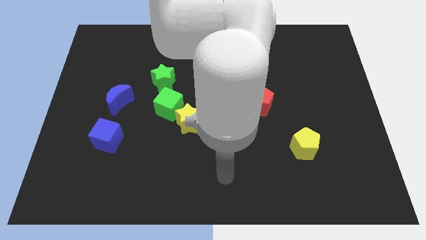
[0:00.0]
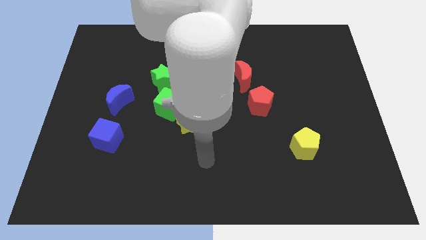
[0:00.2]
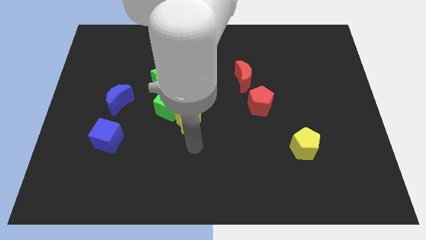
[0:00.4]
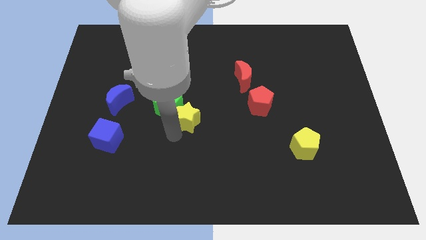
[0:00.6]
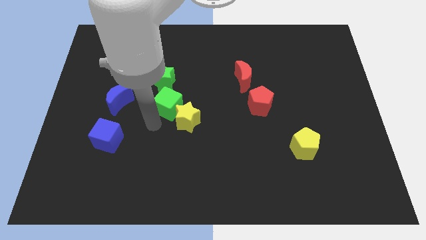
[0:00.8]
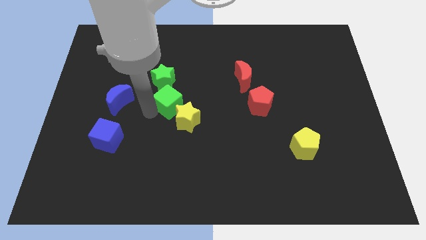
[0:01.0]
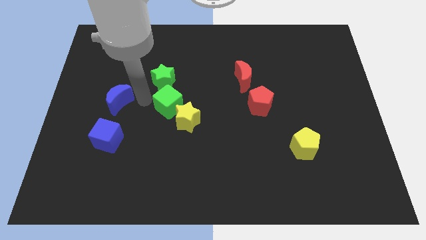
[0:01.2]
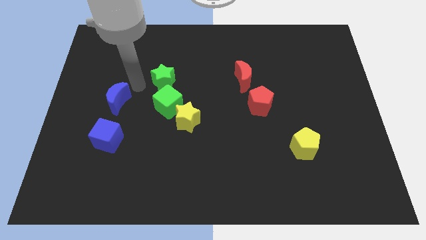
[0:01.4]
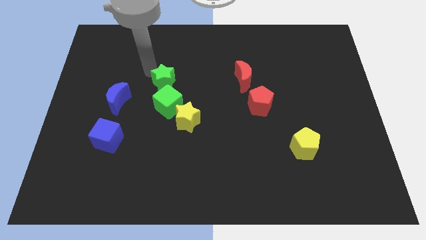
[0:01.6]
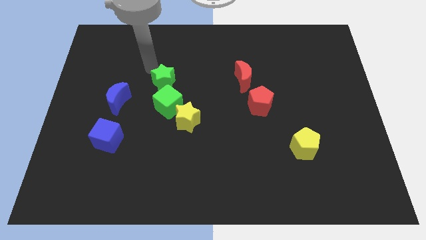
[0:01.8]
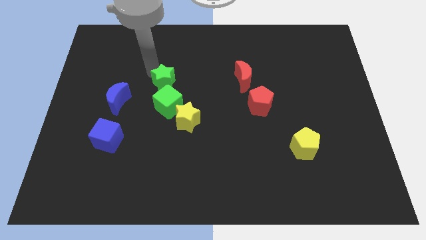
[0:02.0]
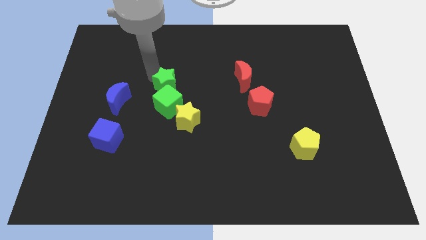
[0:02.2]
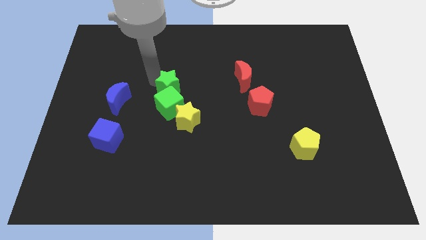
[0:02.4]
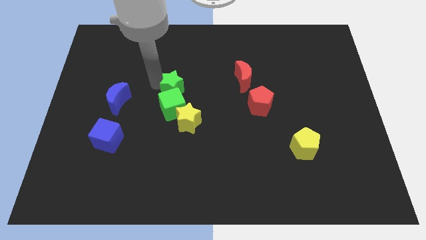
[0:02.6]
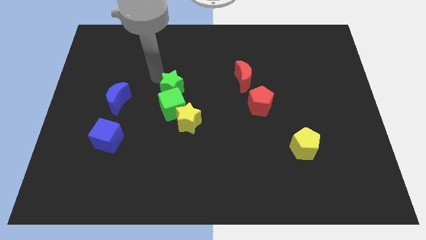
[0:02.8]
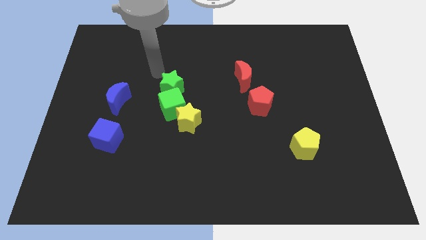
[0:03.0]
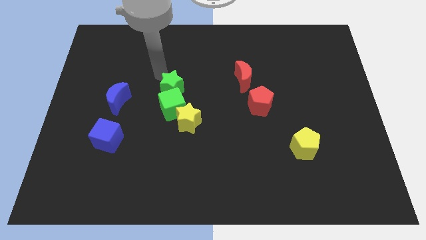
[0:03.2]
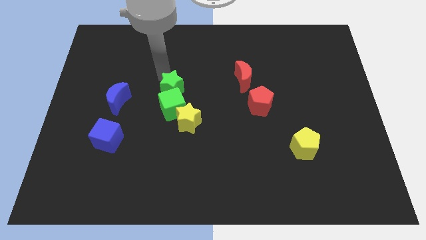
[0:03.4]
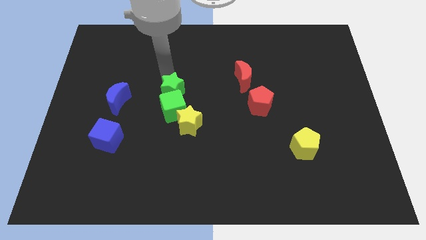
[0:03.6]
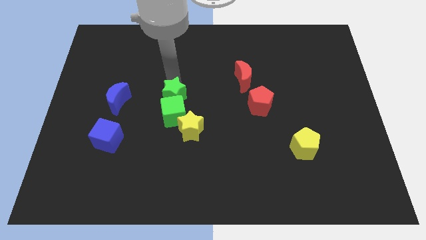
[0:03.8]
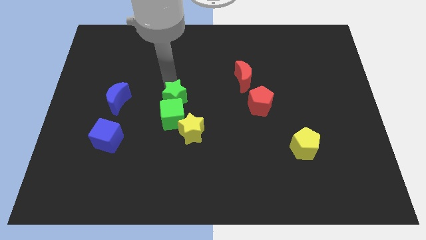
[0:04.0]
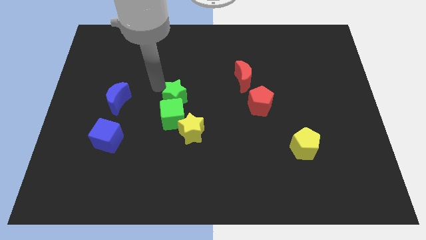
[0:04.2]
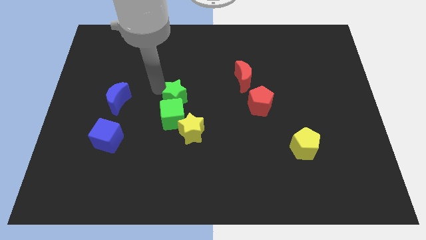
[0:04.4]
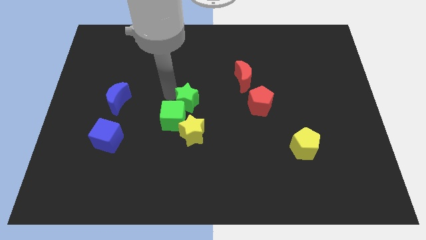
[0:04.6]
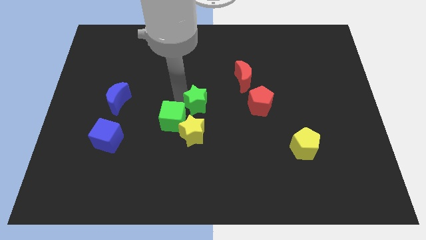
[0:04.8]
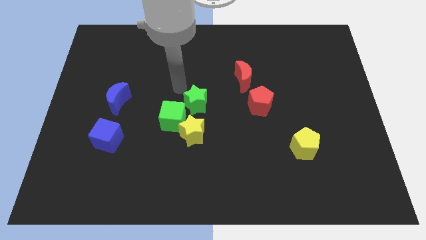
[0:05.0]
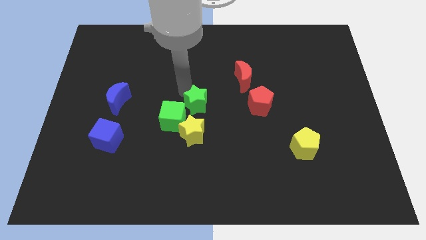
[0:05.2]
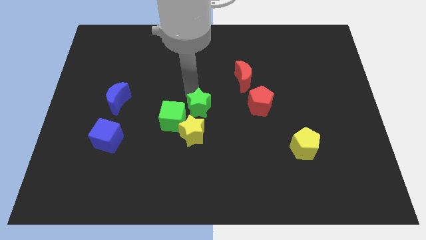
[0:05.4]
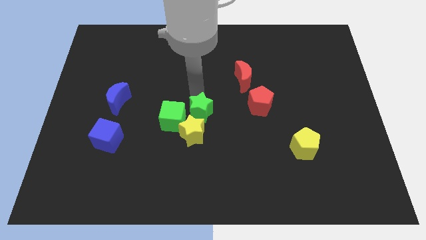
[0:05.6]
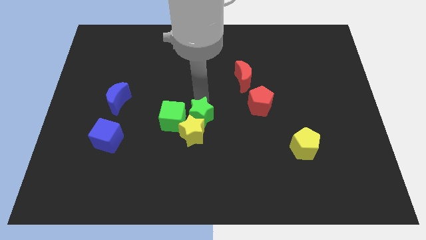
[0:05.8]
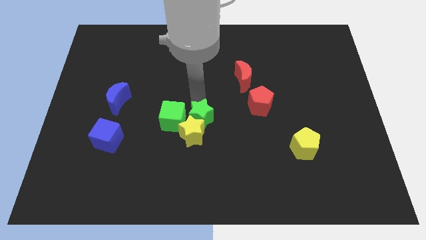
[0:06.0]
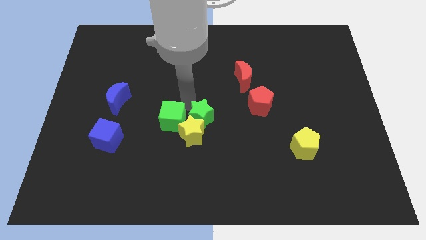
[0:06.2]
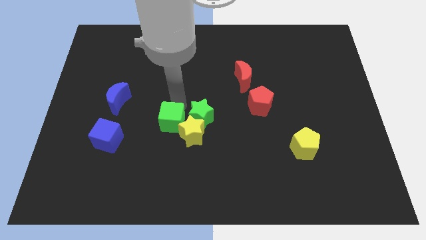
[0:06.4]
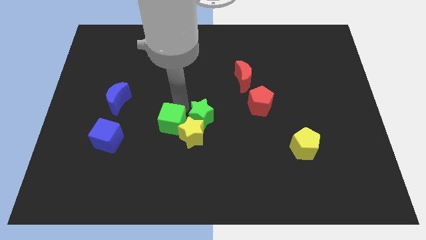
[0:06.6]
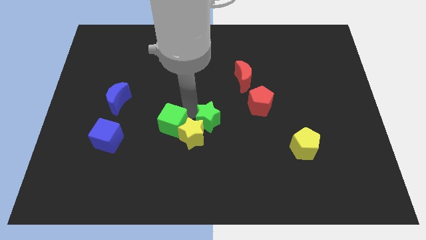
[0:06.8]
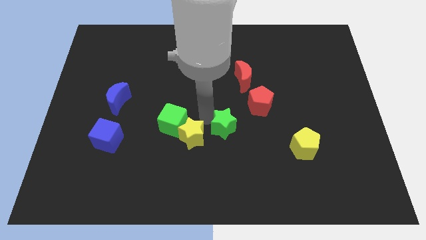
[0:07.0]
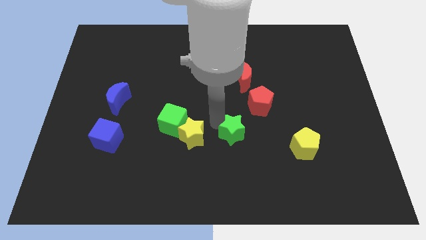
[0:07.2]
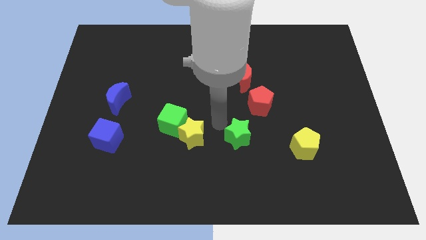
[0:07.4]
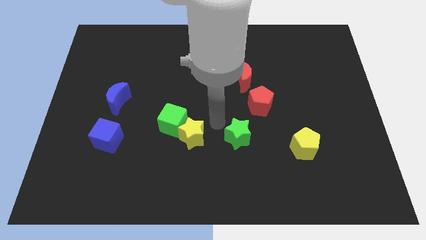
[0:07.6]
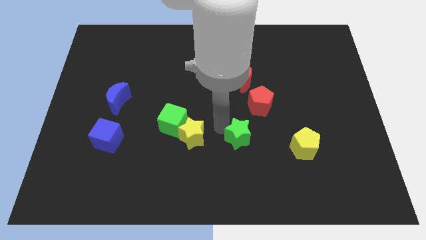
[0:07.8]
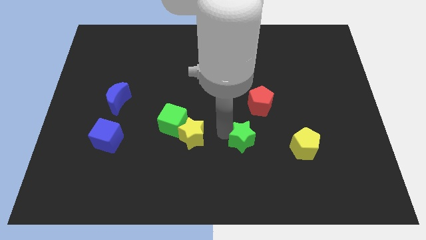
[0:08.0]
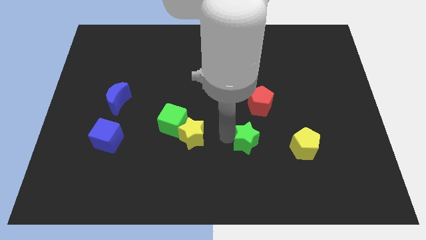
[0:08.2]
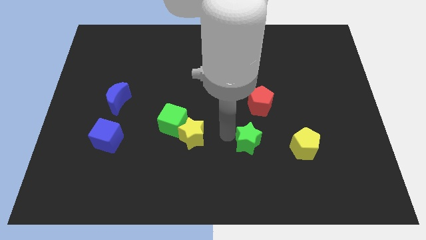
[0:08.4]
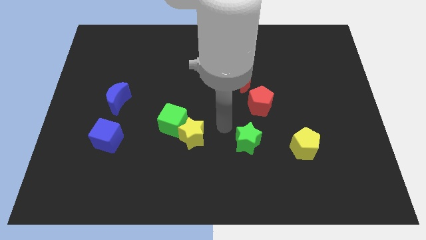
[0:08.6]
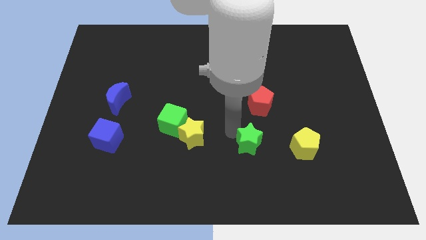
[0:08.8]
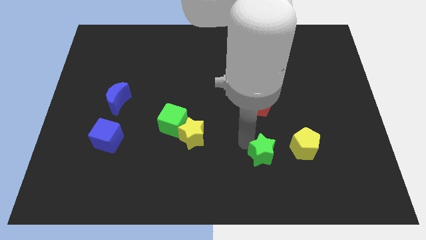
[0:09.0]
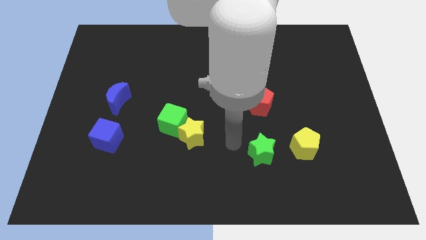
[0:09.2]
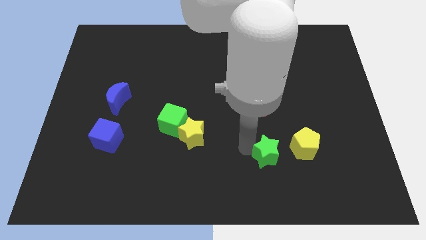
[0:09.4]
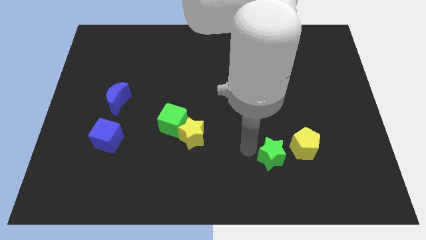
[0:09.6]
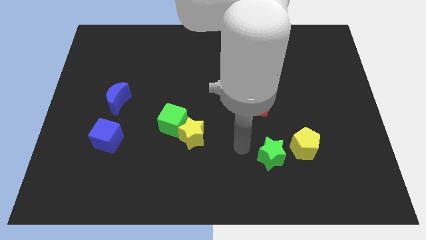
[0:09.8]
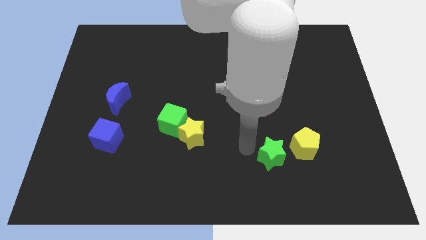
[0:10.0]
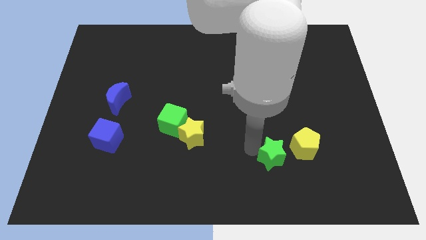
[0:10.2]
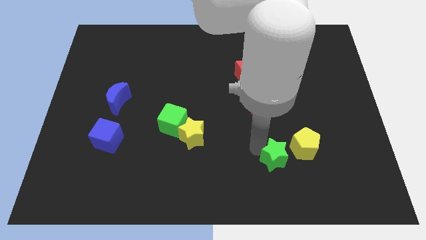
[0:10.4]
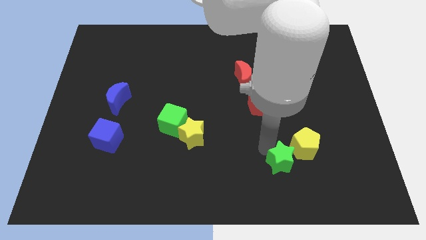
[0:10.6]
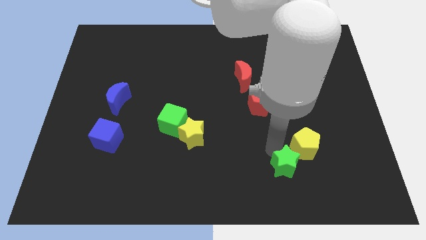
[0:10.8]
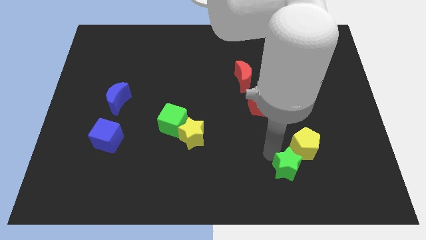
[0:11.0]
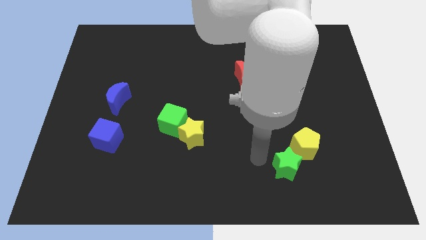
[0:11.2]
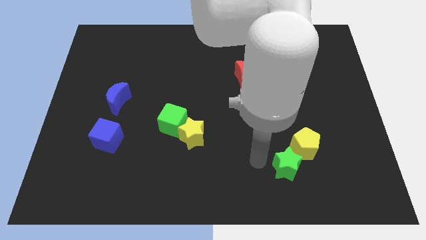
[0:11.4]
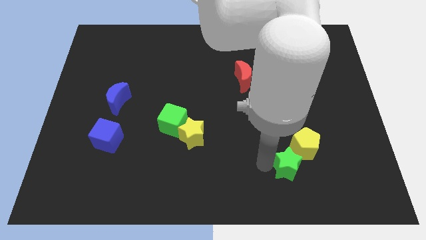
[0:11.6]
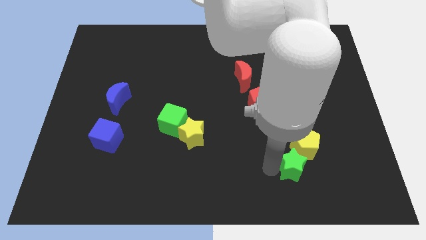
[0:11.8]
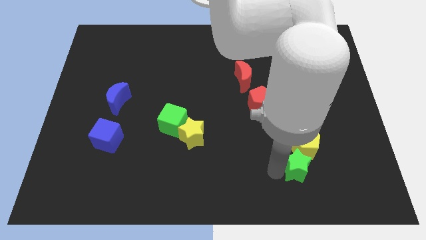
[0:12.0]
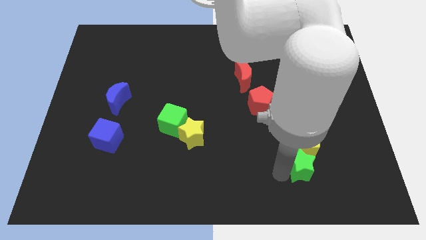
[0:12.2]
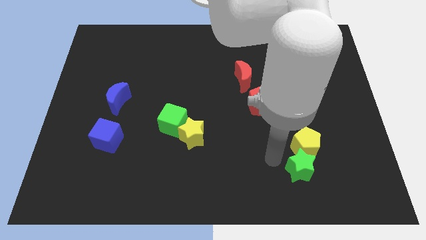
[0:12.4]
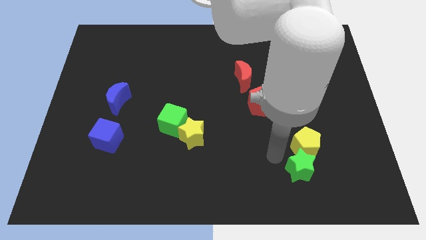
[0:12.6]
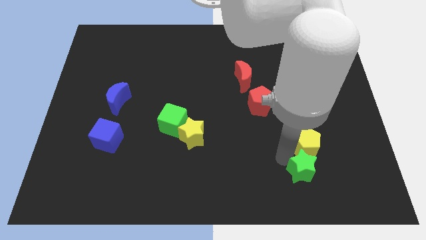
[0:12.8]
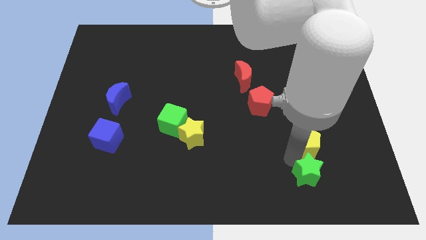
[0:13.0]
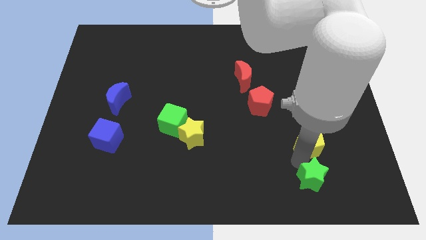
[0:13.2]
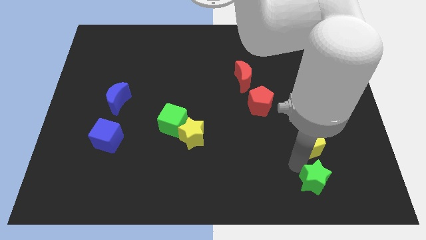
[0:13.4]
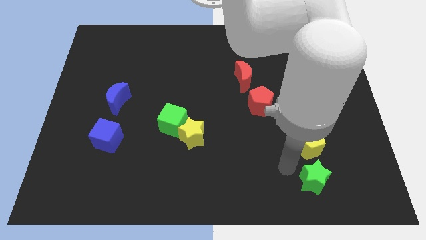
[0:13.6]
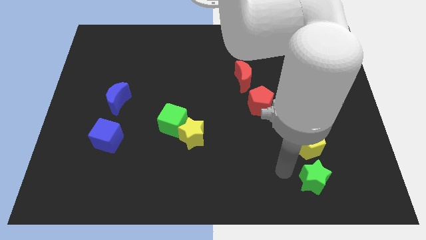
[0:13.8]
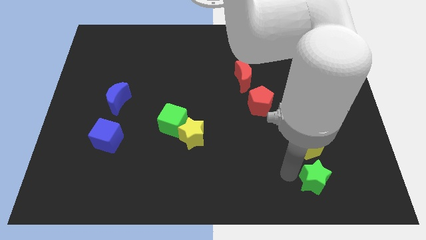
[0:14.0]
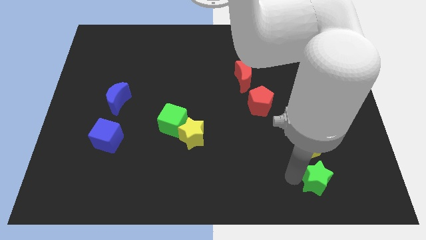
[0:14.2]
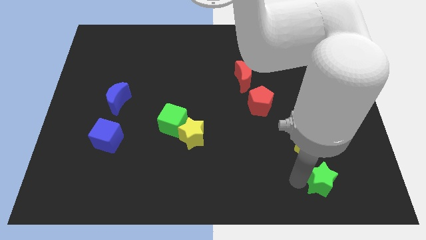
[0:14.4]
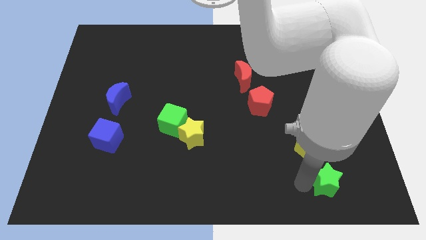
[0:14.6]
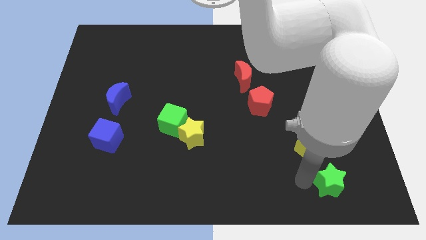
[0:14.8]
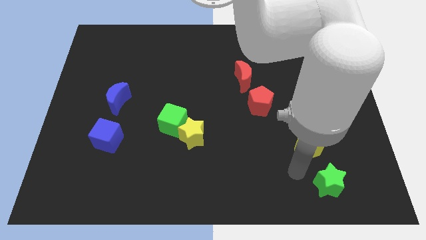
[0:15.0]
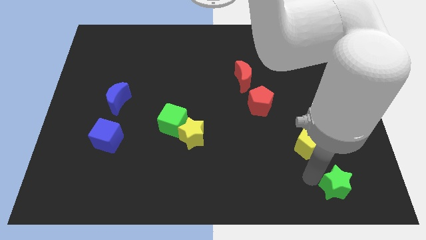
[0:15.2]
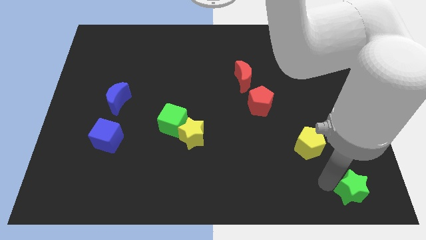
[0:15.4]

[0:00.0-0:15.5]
put the green star to the lower right corner
